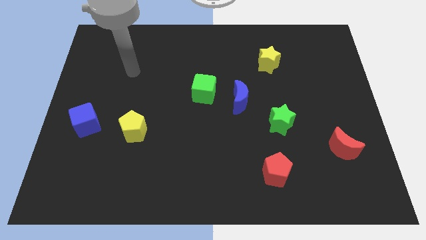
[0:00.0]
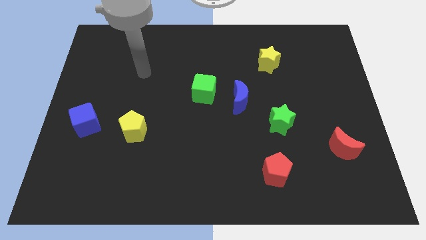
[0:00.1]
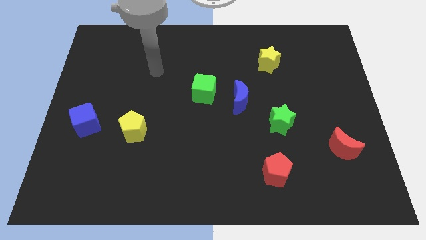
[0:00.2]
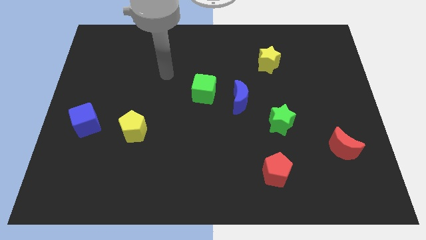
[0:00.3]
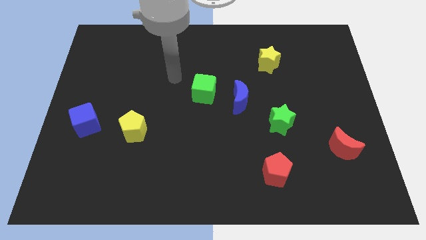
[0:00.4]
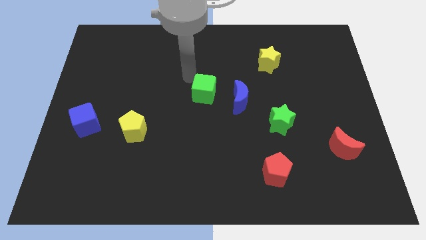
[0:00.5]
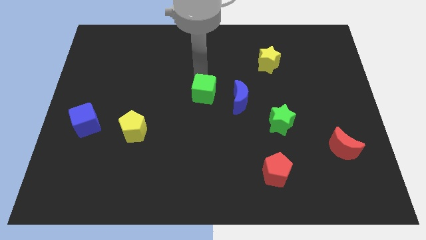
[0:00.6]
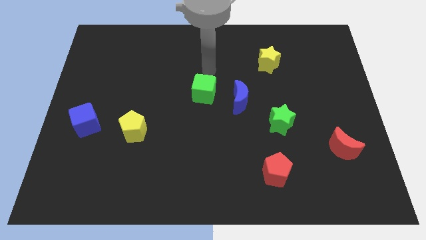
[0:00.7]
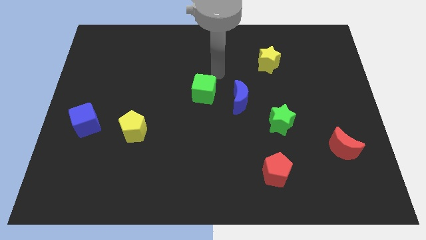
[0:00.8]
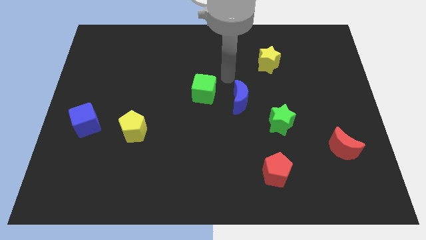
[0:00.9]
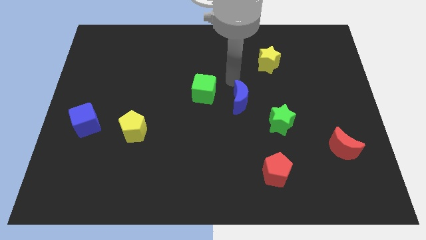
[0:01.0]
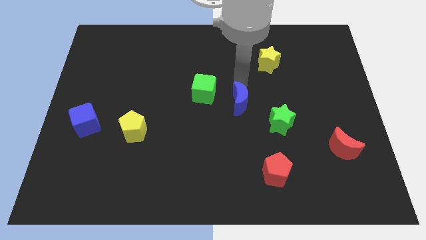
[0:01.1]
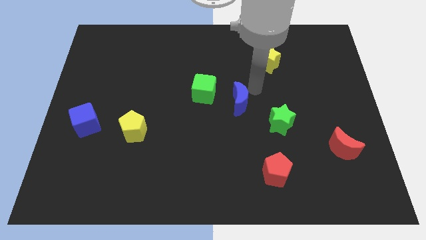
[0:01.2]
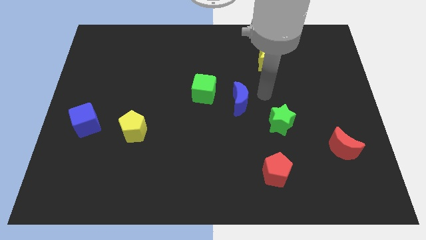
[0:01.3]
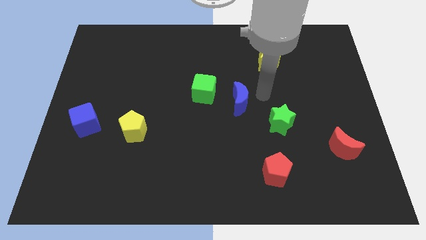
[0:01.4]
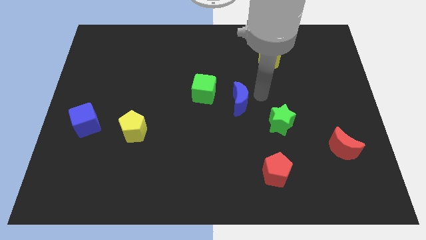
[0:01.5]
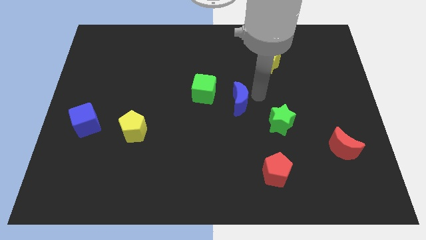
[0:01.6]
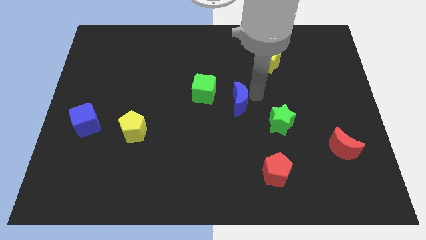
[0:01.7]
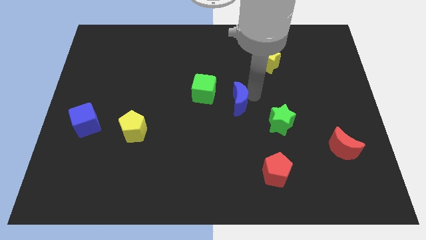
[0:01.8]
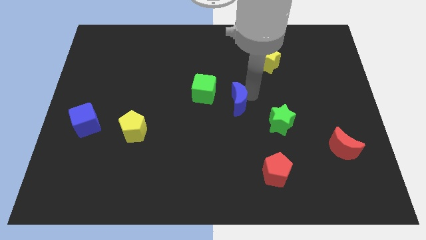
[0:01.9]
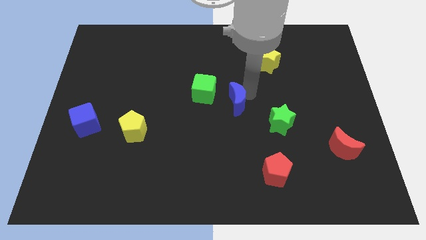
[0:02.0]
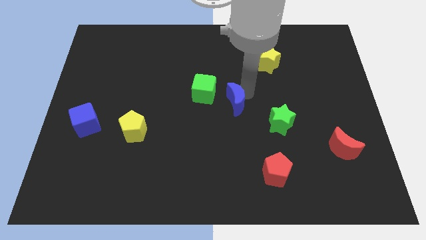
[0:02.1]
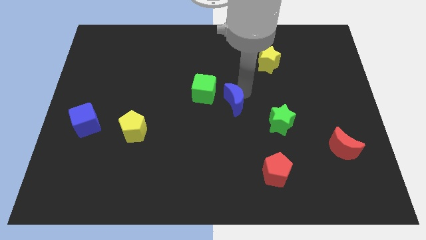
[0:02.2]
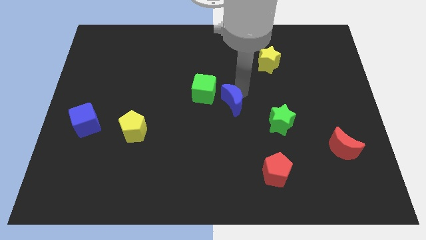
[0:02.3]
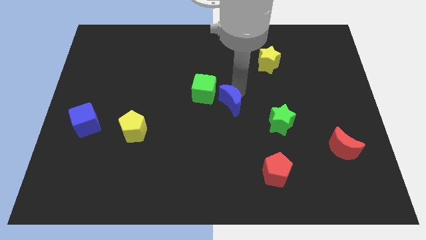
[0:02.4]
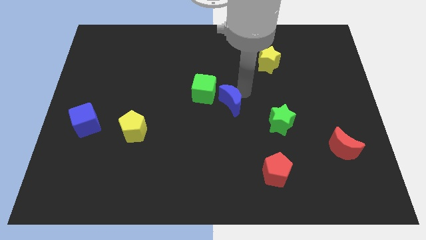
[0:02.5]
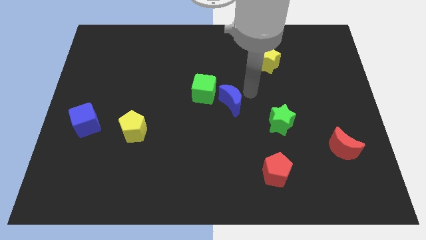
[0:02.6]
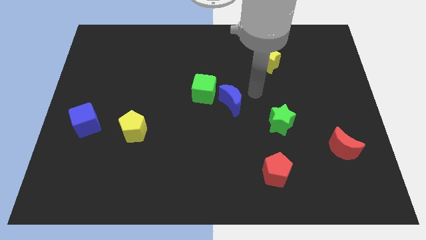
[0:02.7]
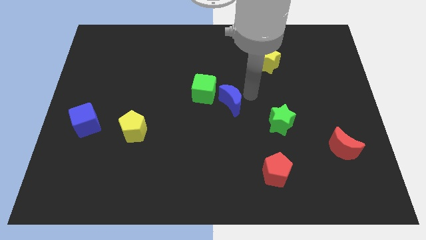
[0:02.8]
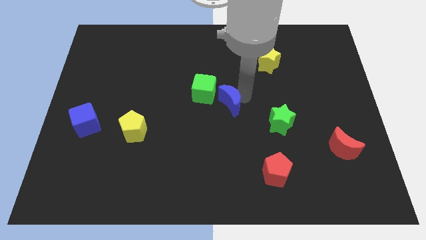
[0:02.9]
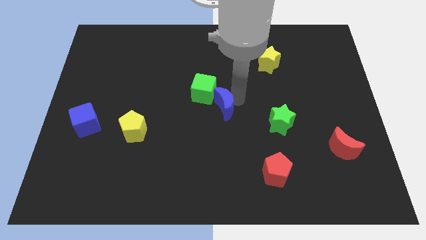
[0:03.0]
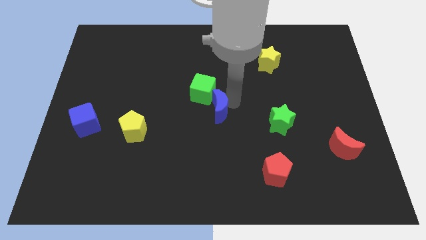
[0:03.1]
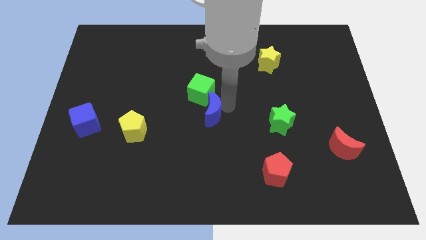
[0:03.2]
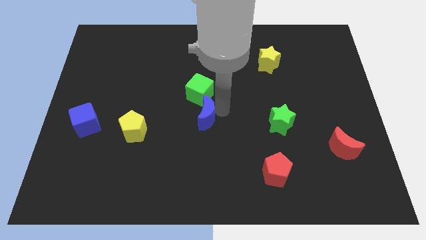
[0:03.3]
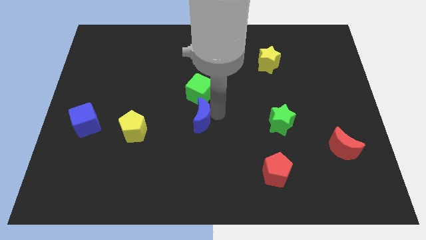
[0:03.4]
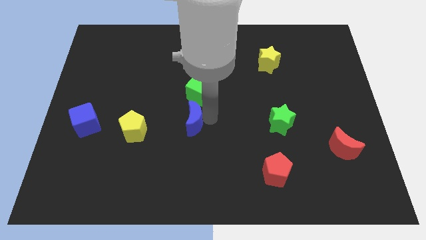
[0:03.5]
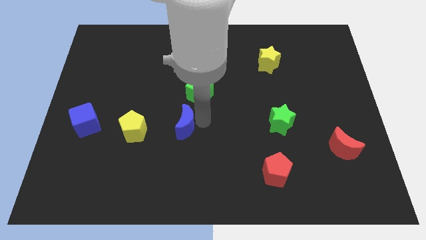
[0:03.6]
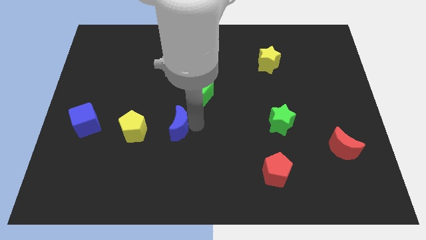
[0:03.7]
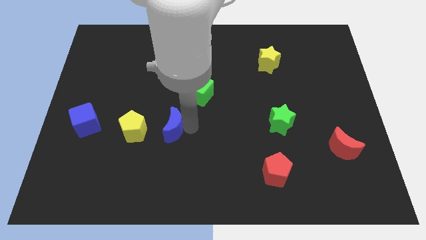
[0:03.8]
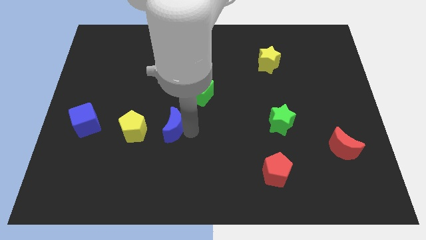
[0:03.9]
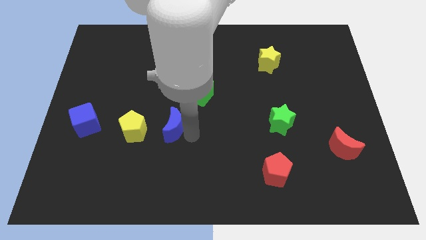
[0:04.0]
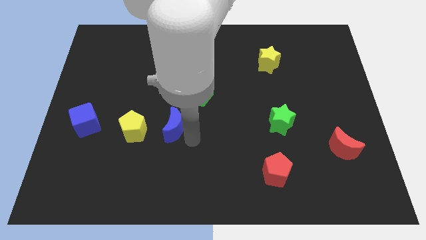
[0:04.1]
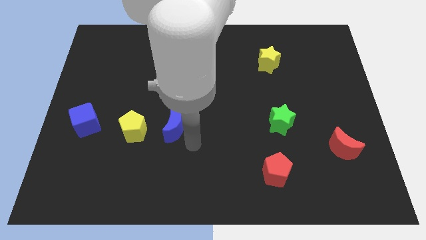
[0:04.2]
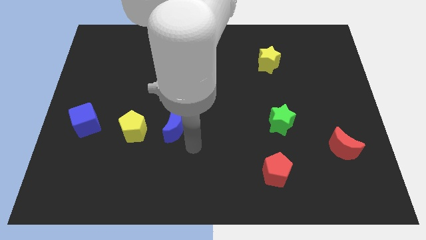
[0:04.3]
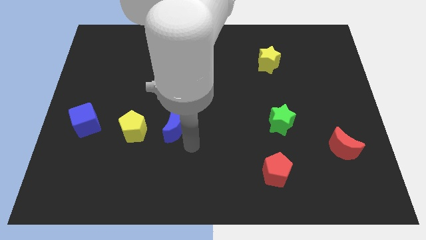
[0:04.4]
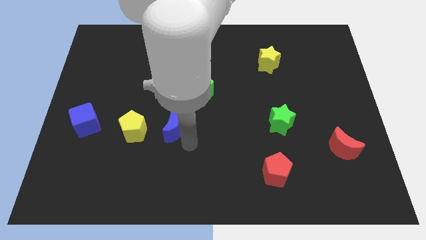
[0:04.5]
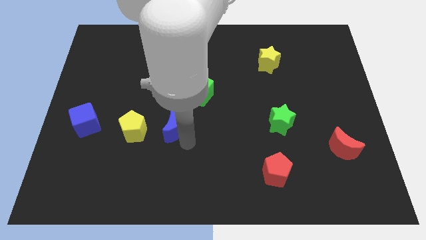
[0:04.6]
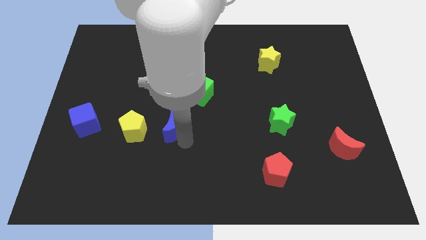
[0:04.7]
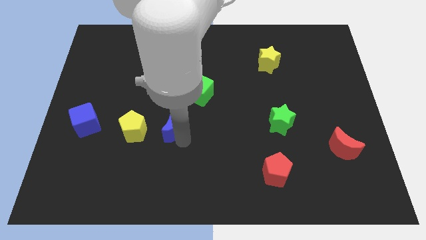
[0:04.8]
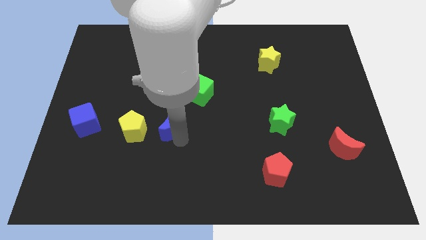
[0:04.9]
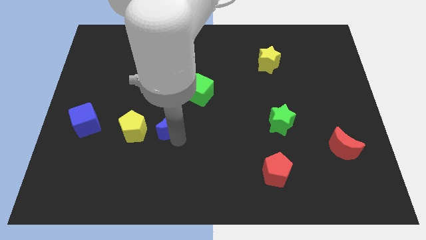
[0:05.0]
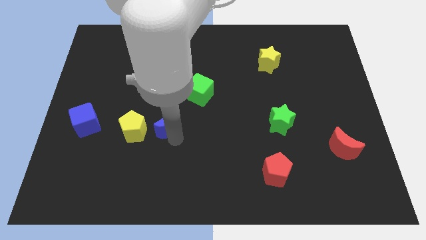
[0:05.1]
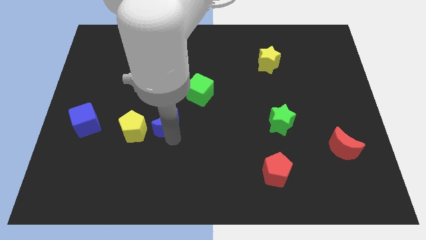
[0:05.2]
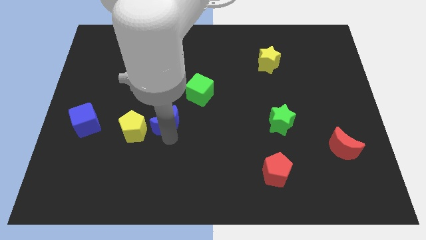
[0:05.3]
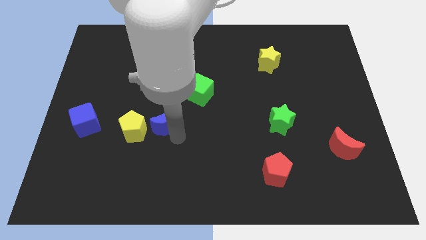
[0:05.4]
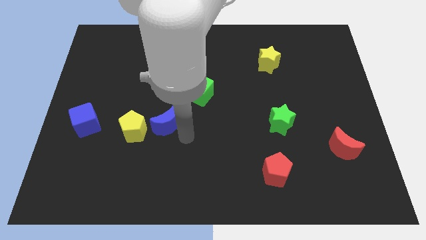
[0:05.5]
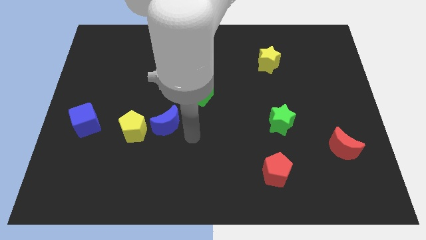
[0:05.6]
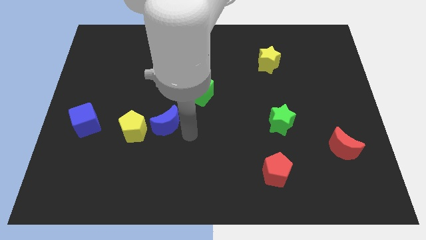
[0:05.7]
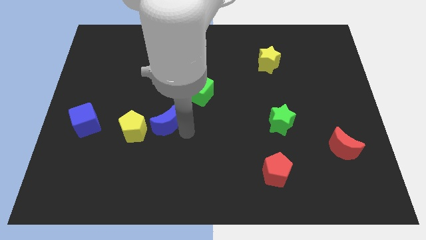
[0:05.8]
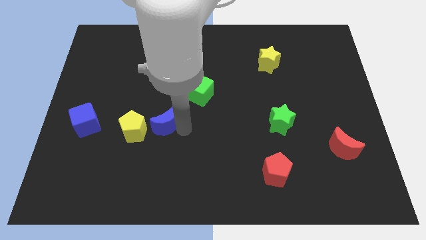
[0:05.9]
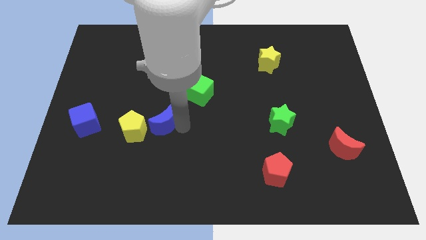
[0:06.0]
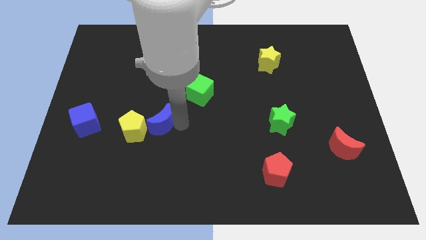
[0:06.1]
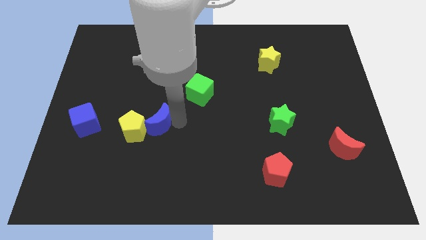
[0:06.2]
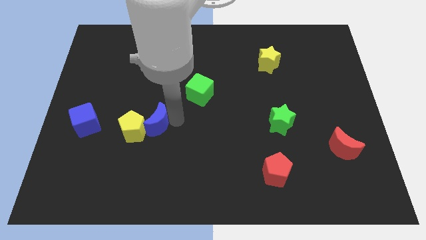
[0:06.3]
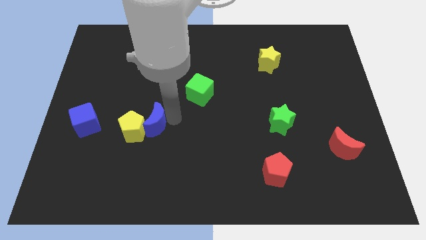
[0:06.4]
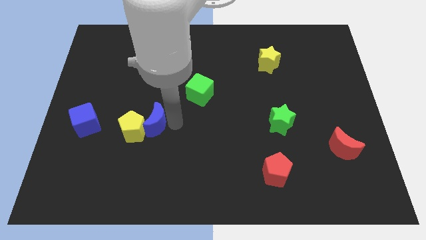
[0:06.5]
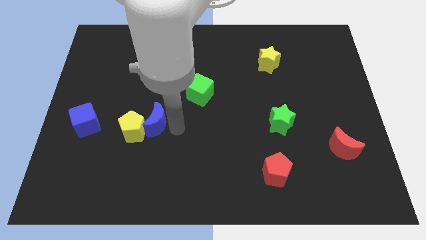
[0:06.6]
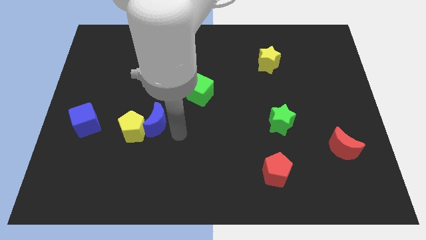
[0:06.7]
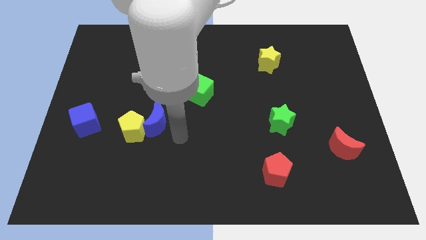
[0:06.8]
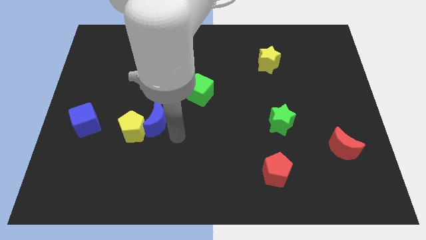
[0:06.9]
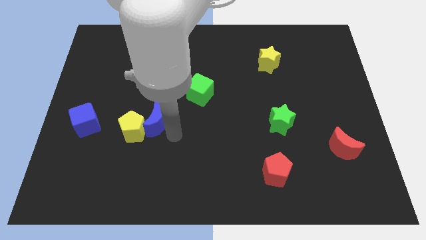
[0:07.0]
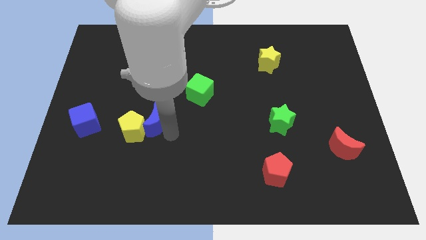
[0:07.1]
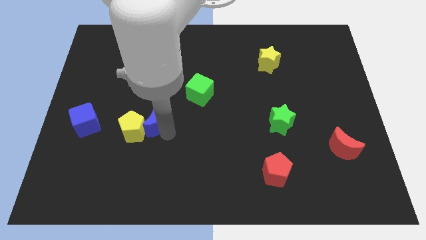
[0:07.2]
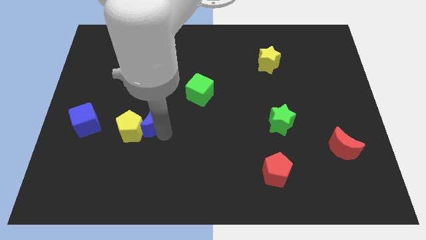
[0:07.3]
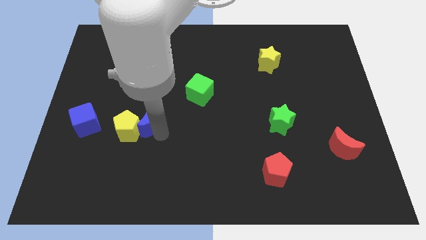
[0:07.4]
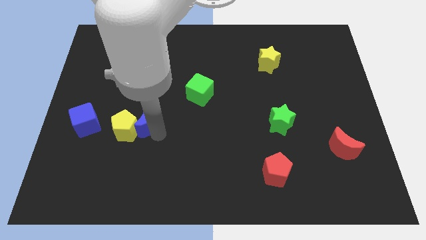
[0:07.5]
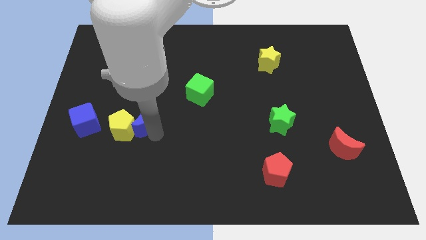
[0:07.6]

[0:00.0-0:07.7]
push the blue moon to the left

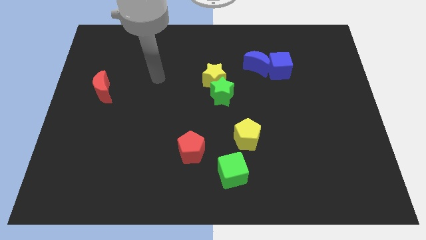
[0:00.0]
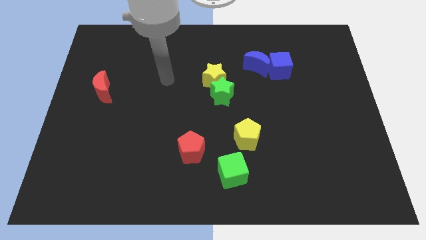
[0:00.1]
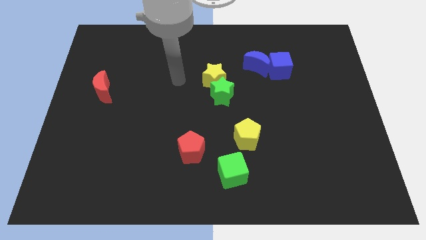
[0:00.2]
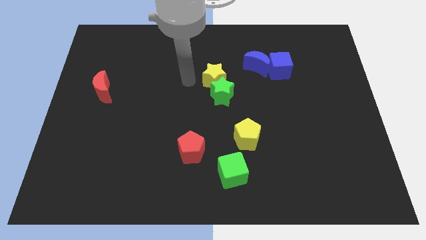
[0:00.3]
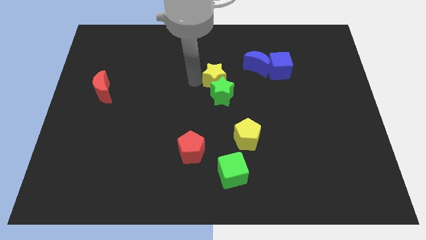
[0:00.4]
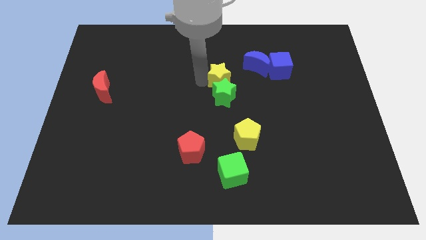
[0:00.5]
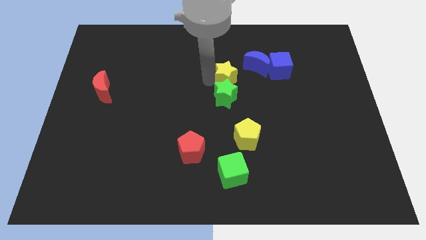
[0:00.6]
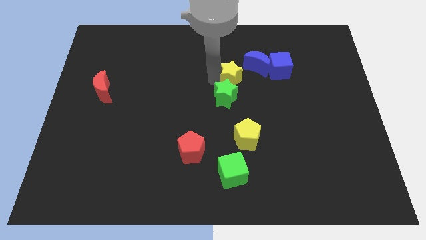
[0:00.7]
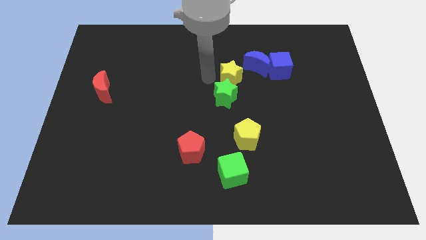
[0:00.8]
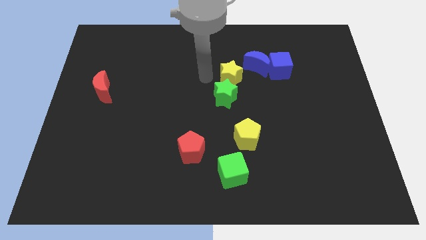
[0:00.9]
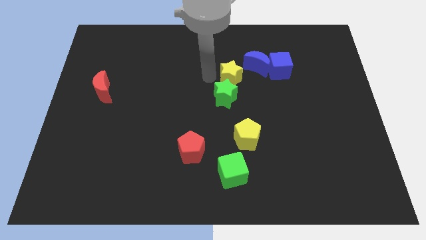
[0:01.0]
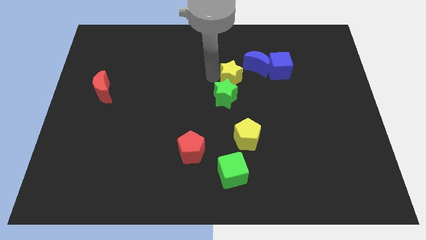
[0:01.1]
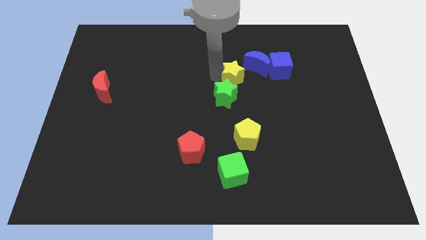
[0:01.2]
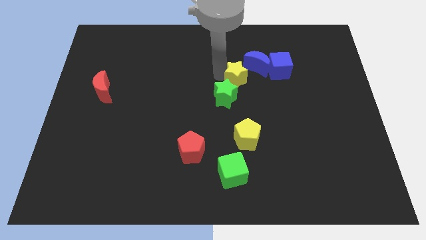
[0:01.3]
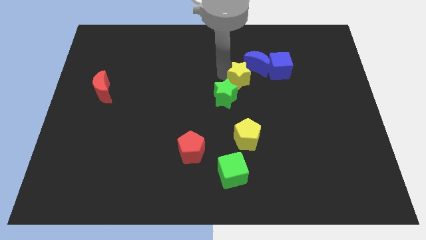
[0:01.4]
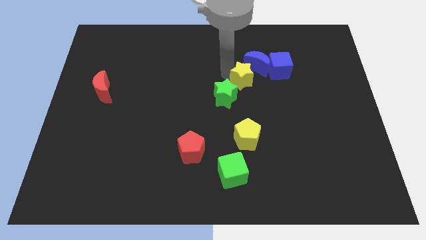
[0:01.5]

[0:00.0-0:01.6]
slightly push the yellow star to the right
